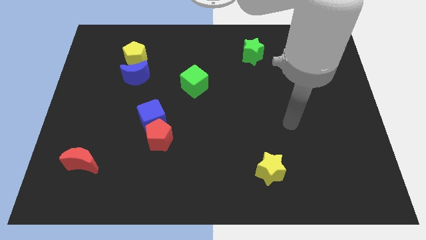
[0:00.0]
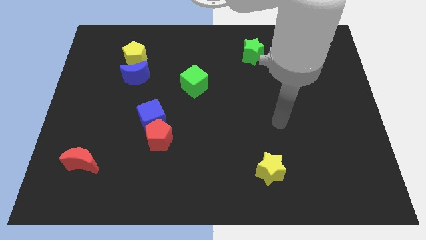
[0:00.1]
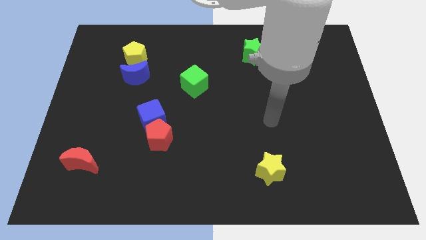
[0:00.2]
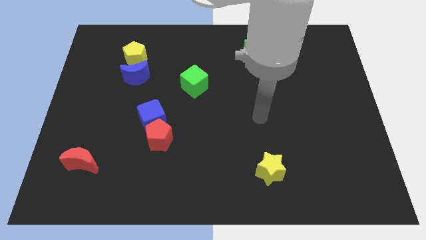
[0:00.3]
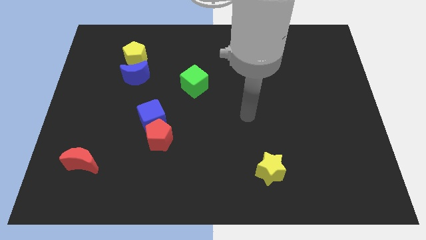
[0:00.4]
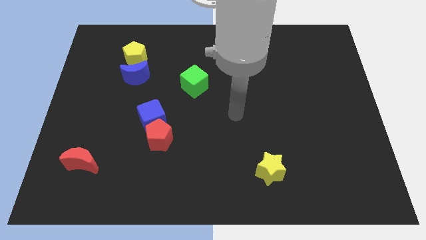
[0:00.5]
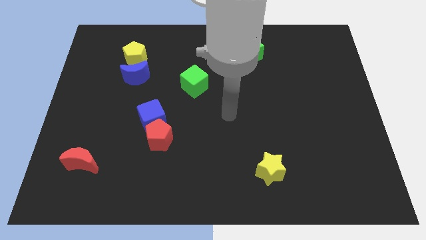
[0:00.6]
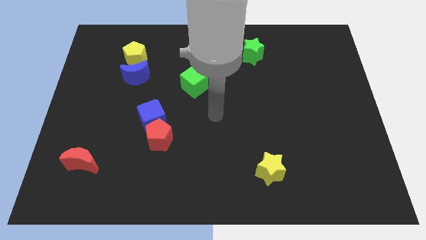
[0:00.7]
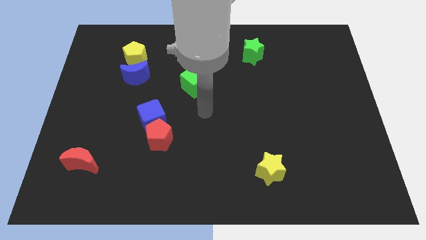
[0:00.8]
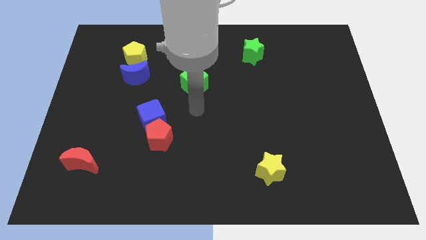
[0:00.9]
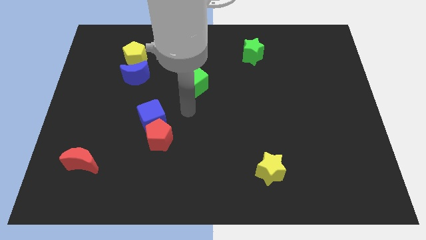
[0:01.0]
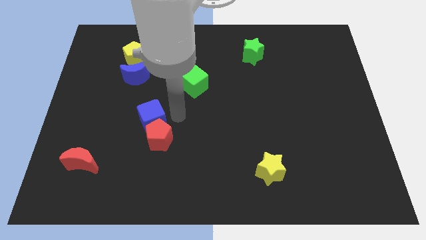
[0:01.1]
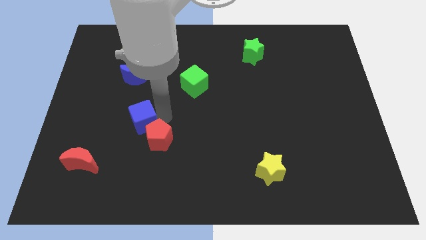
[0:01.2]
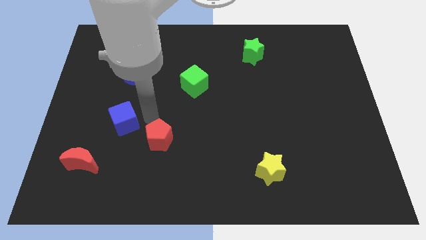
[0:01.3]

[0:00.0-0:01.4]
move the red pentagon away from the blue cube

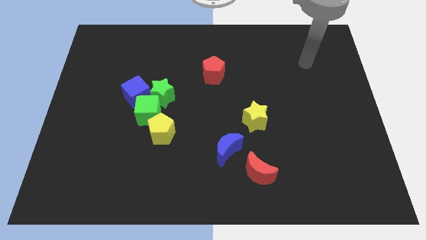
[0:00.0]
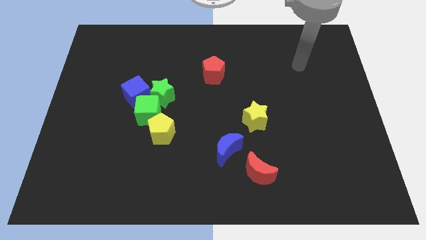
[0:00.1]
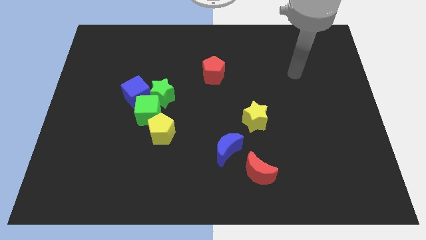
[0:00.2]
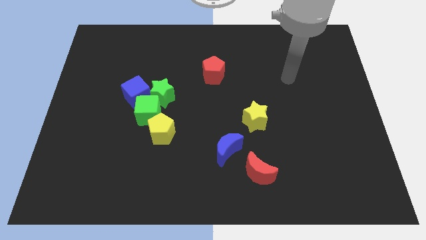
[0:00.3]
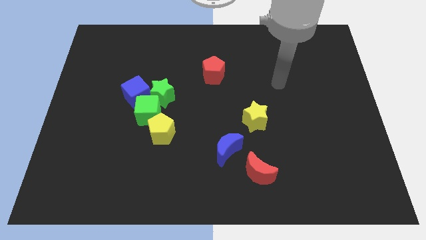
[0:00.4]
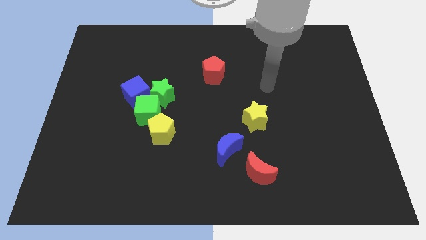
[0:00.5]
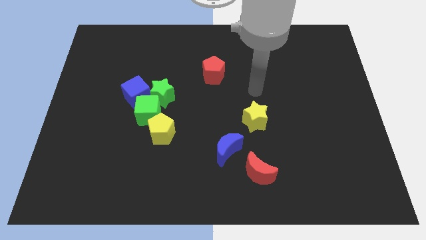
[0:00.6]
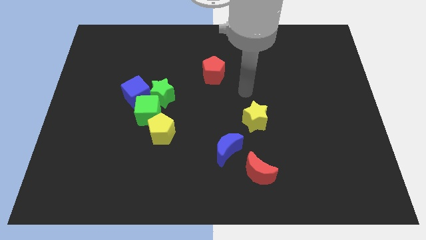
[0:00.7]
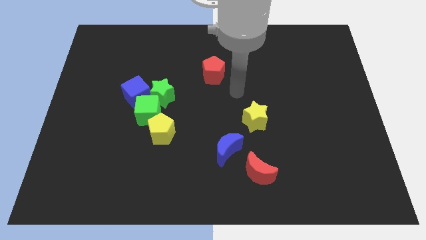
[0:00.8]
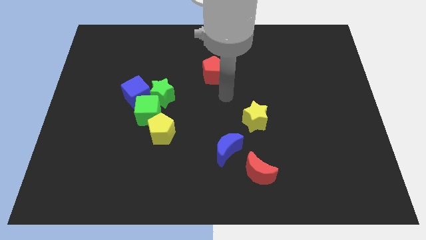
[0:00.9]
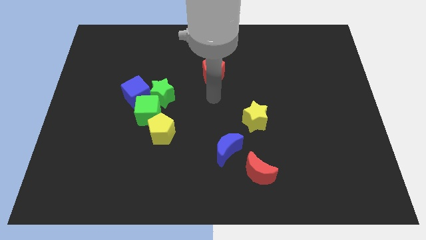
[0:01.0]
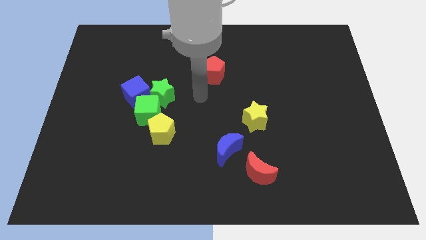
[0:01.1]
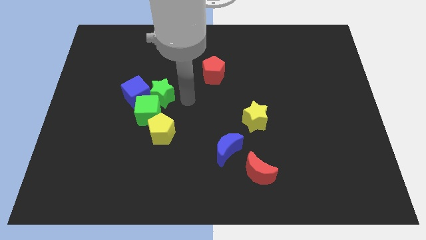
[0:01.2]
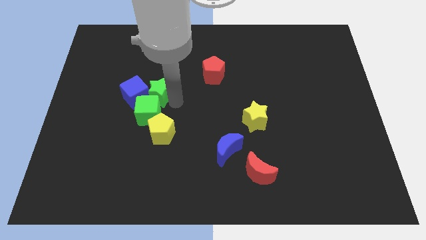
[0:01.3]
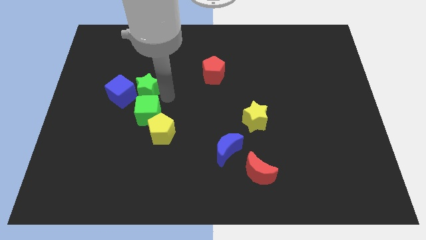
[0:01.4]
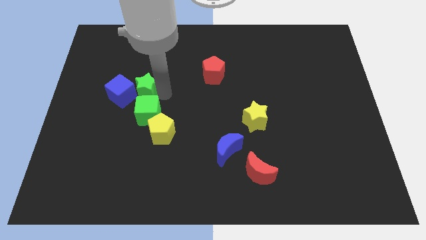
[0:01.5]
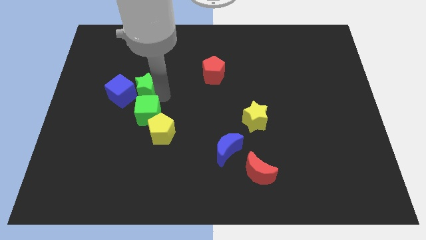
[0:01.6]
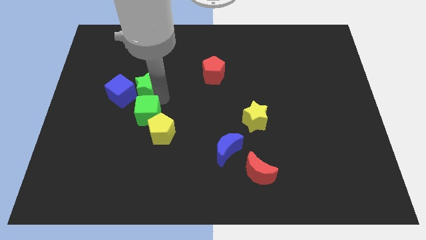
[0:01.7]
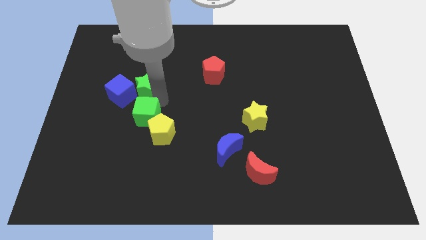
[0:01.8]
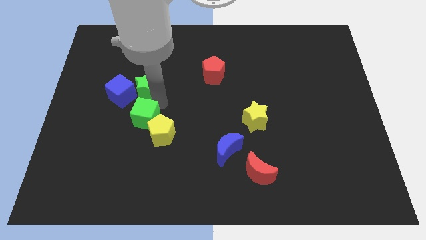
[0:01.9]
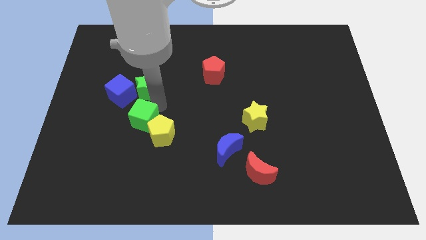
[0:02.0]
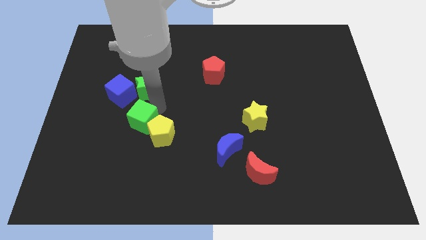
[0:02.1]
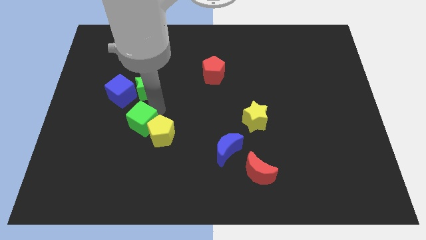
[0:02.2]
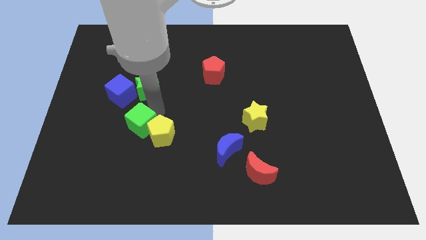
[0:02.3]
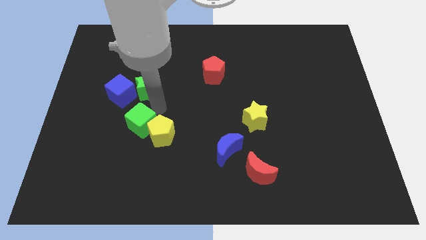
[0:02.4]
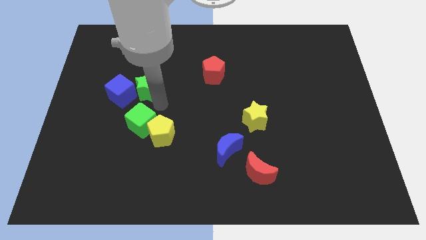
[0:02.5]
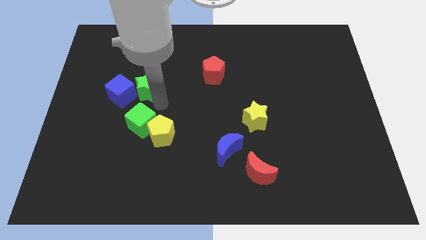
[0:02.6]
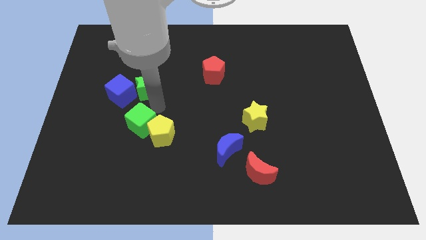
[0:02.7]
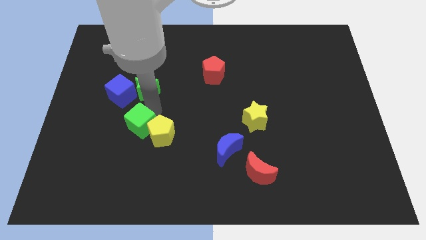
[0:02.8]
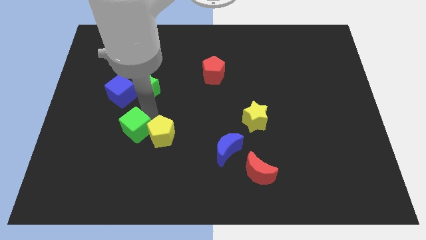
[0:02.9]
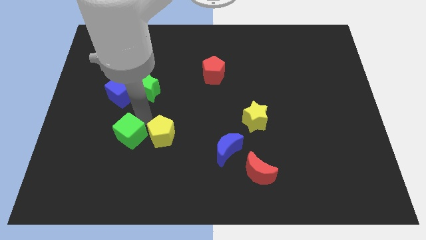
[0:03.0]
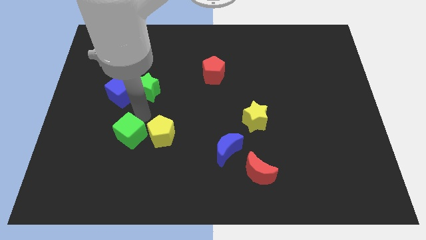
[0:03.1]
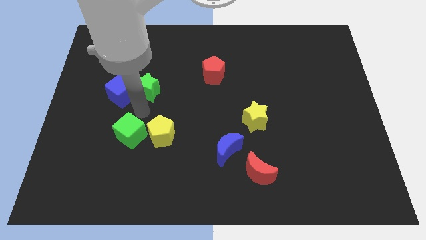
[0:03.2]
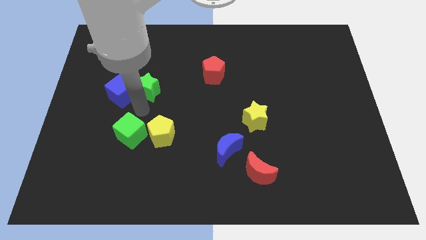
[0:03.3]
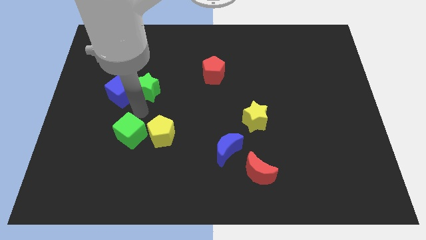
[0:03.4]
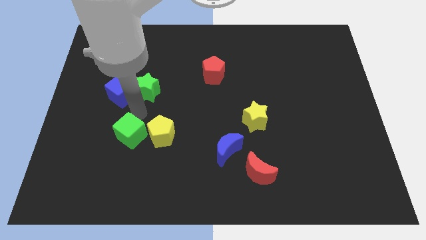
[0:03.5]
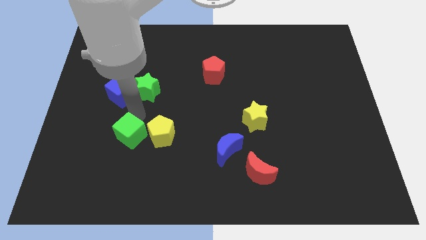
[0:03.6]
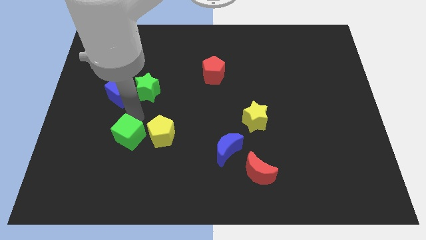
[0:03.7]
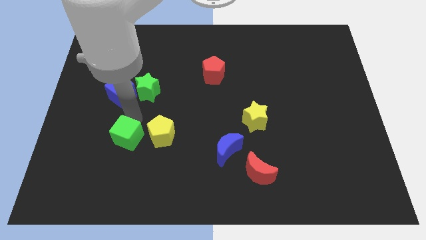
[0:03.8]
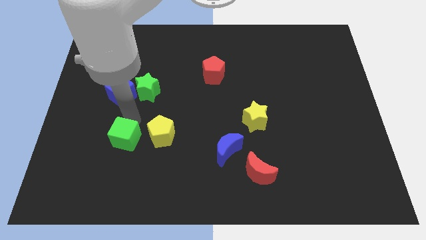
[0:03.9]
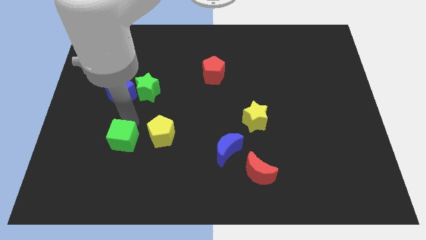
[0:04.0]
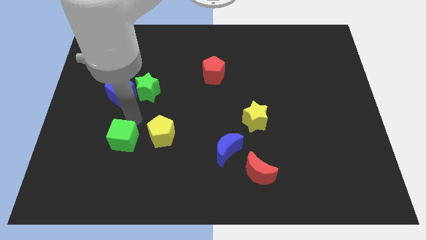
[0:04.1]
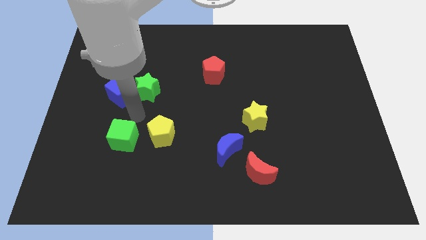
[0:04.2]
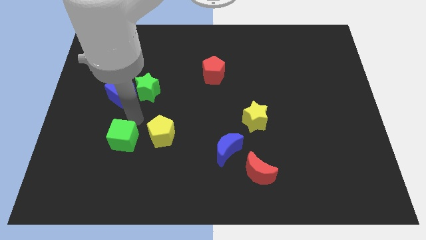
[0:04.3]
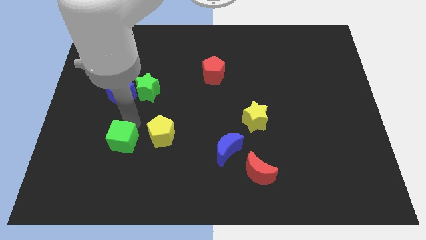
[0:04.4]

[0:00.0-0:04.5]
pull the green cube apart from the group of blocks

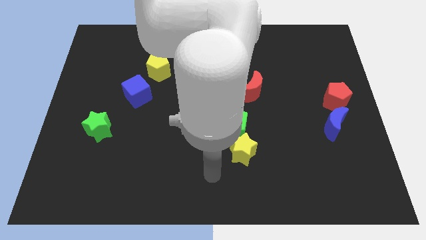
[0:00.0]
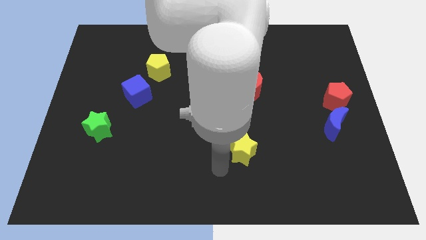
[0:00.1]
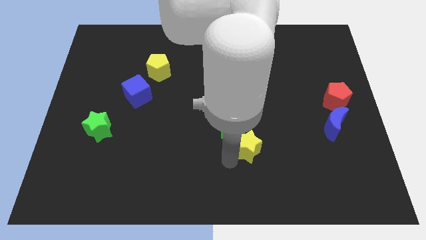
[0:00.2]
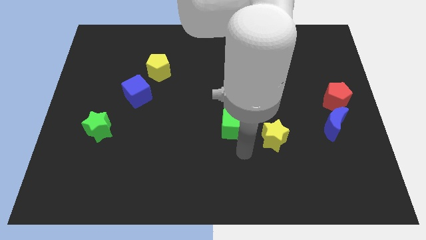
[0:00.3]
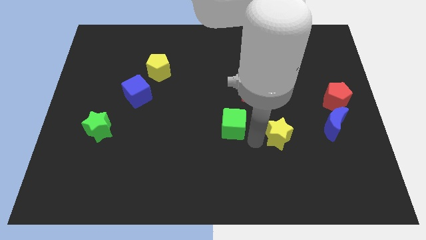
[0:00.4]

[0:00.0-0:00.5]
move the green cube away from the yellow star

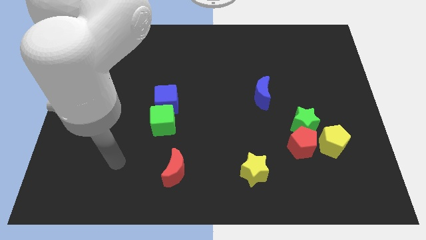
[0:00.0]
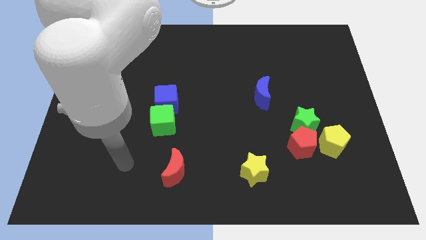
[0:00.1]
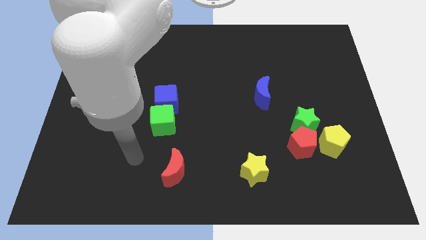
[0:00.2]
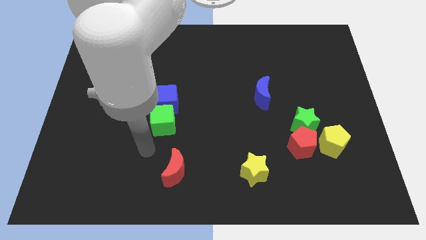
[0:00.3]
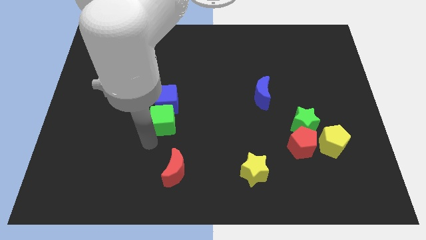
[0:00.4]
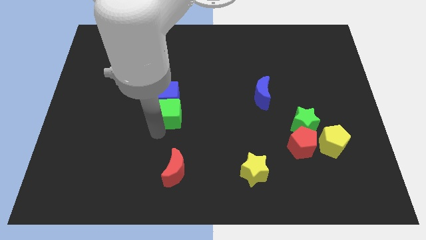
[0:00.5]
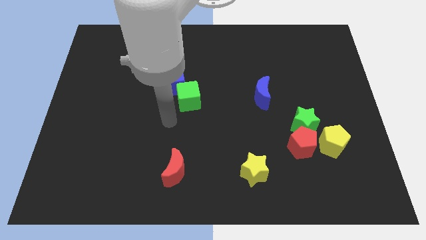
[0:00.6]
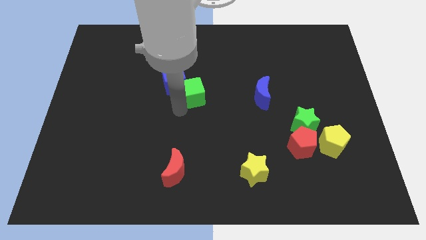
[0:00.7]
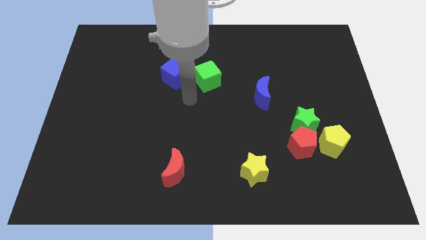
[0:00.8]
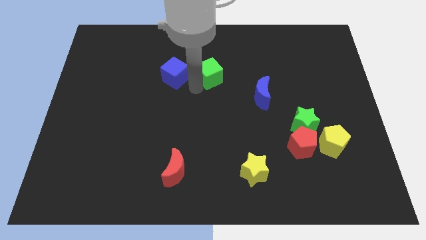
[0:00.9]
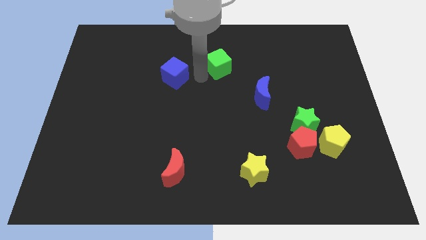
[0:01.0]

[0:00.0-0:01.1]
move the blue cube away from the green cube

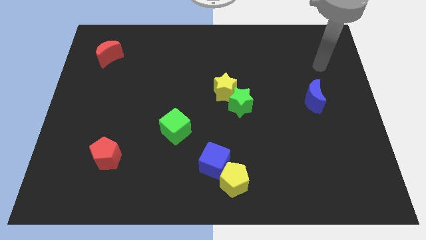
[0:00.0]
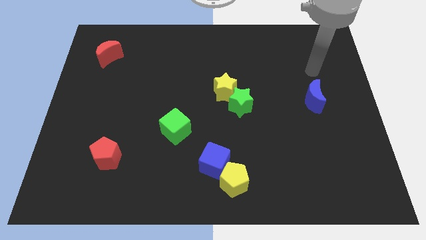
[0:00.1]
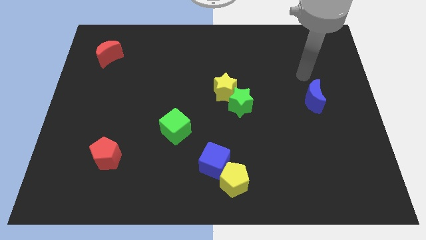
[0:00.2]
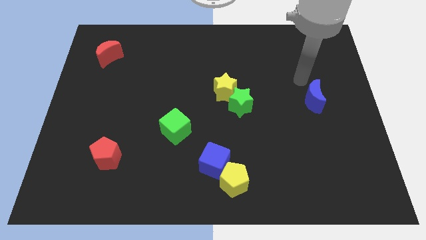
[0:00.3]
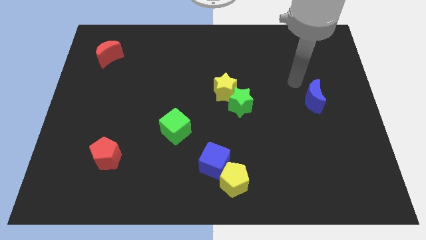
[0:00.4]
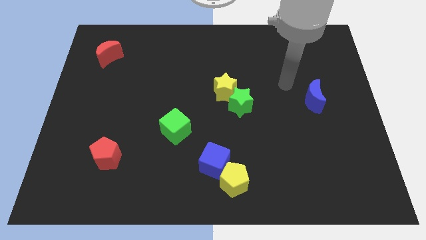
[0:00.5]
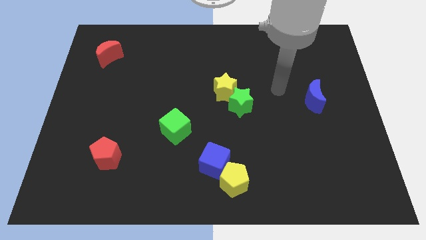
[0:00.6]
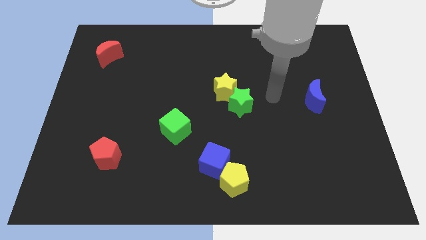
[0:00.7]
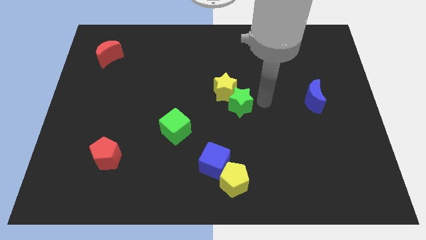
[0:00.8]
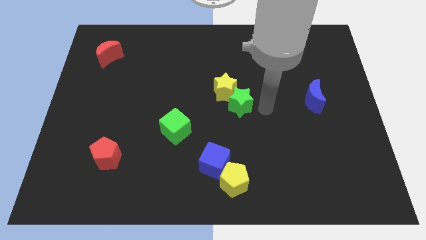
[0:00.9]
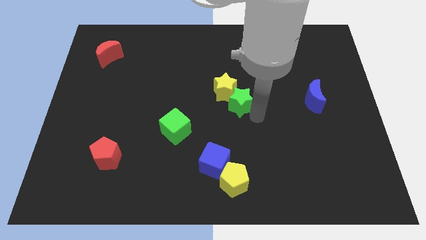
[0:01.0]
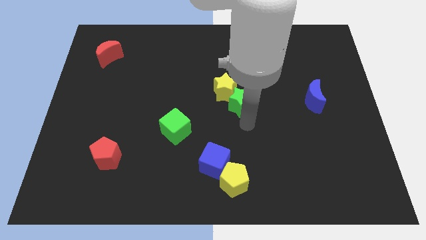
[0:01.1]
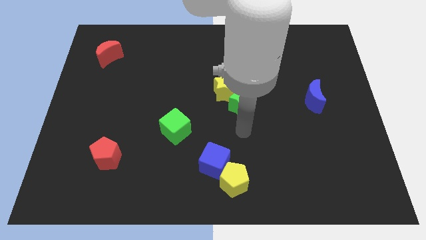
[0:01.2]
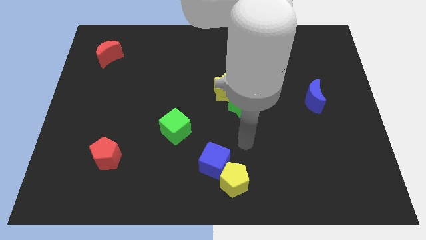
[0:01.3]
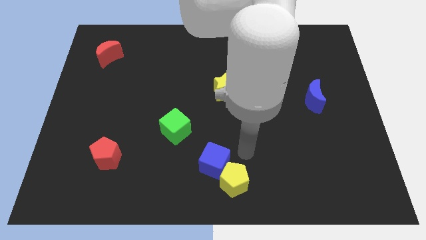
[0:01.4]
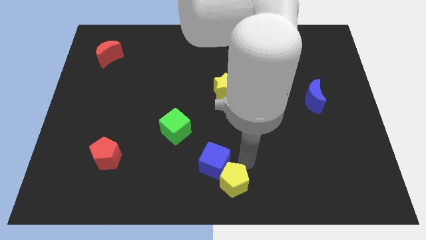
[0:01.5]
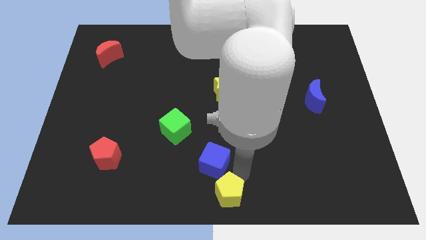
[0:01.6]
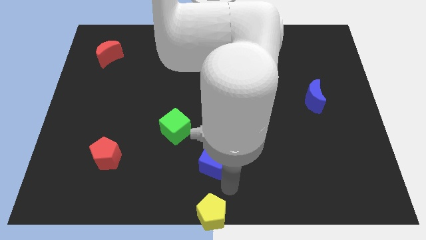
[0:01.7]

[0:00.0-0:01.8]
separate the blue cube from the yellow pentagon

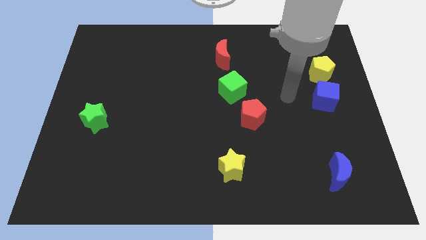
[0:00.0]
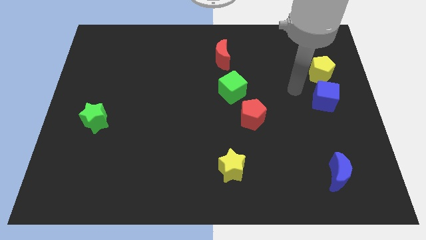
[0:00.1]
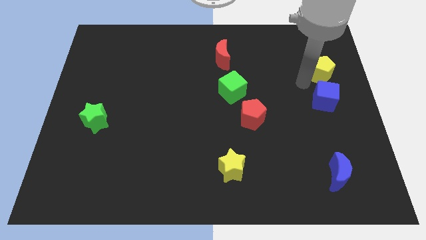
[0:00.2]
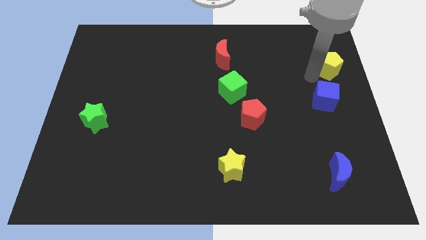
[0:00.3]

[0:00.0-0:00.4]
move the blue cube away from the yellow pentagon
